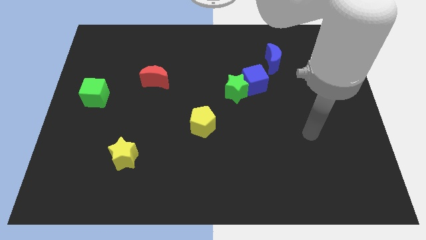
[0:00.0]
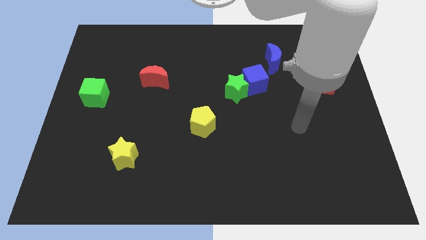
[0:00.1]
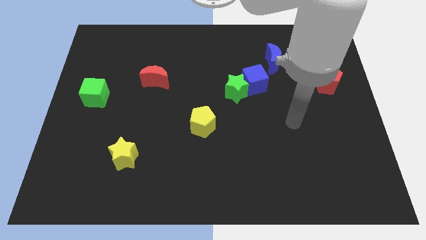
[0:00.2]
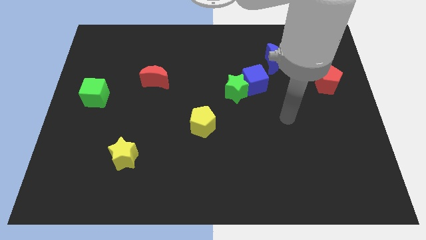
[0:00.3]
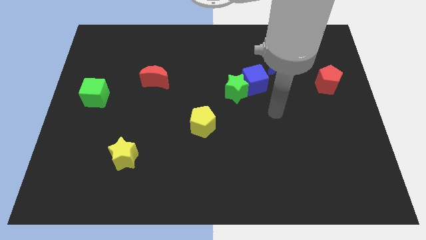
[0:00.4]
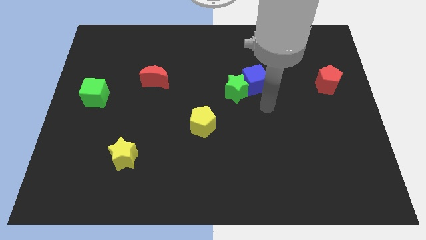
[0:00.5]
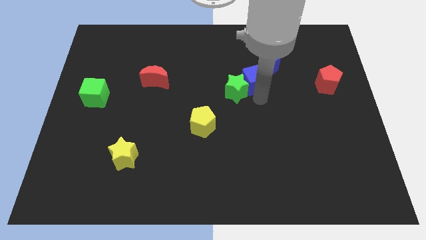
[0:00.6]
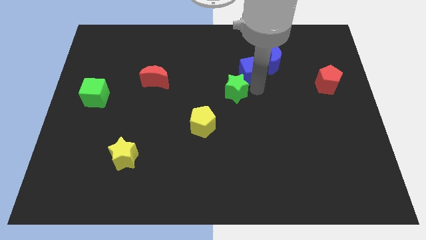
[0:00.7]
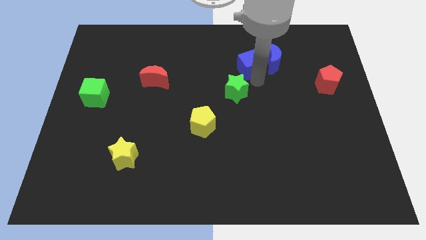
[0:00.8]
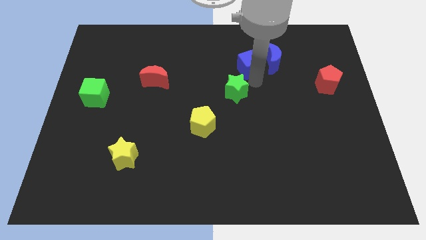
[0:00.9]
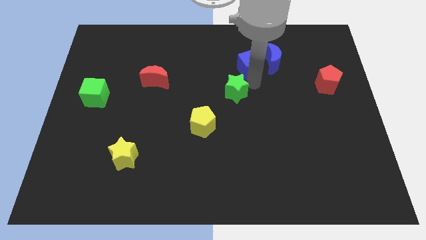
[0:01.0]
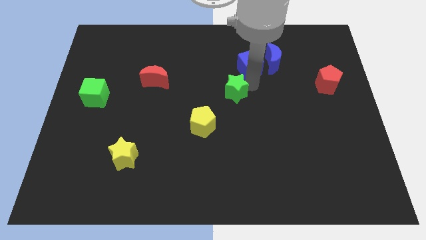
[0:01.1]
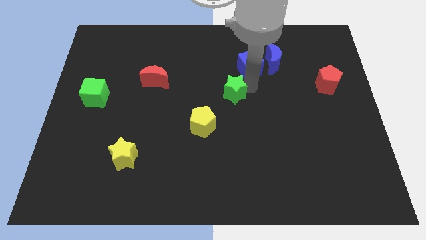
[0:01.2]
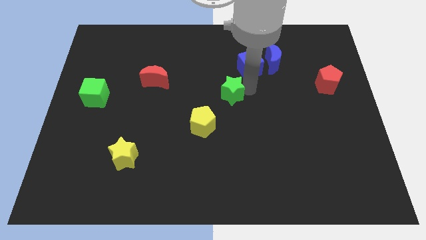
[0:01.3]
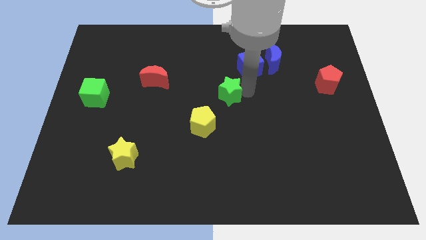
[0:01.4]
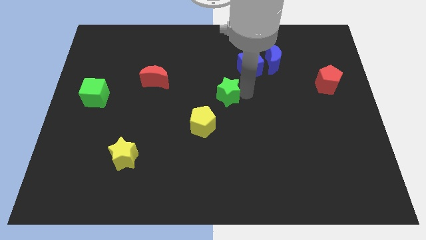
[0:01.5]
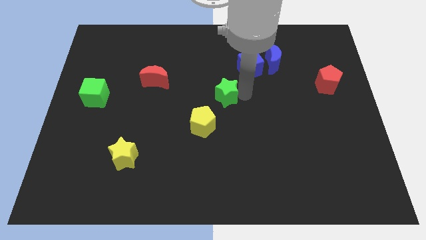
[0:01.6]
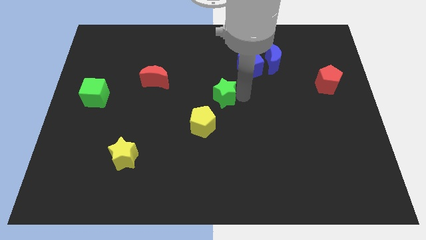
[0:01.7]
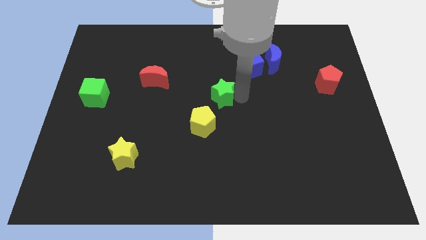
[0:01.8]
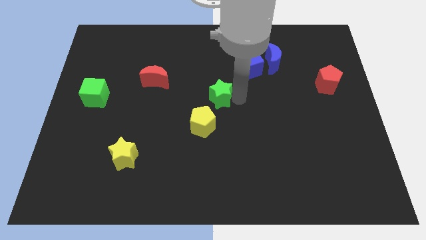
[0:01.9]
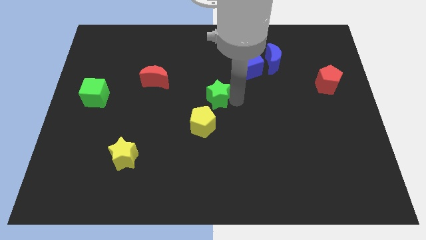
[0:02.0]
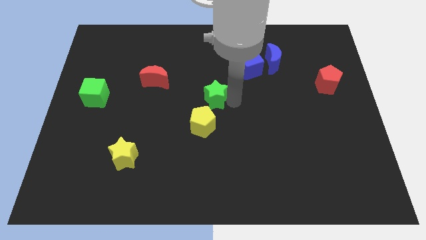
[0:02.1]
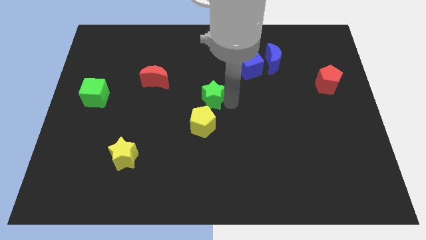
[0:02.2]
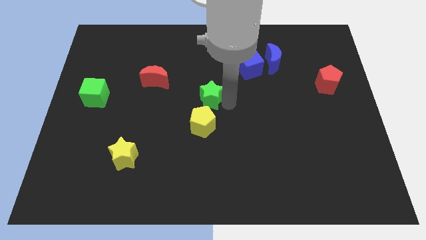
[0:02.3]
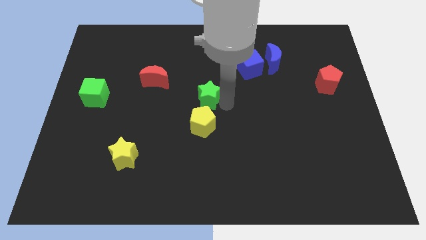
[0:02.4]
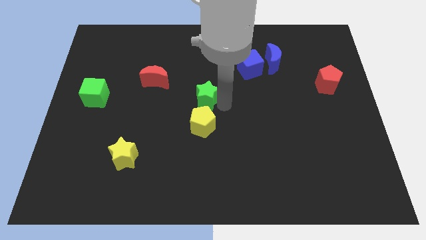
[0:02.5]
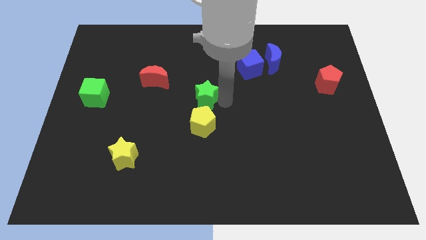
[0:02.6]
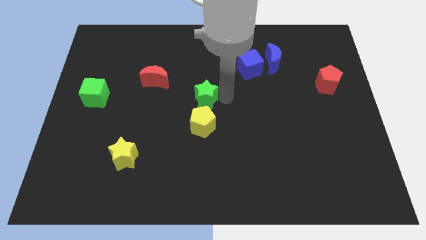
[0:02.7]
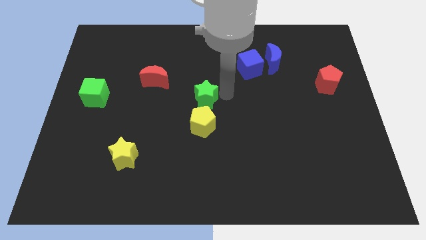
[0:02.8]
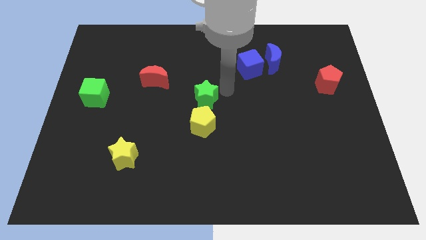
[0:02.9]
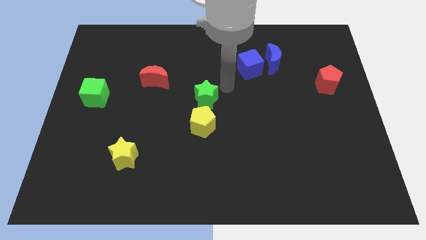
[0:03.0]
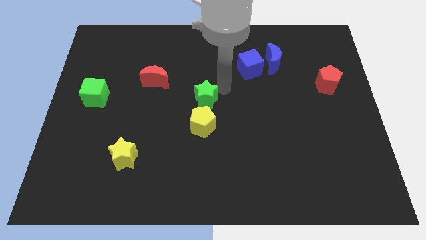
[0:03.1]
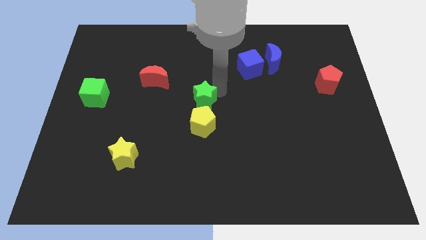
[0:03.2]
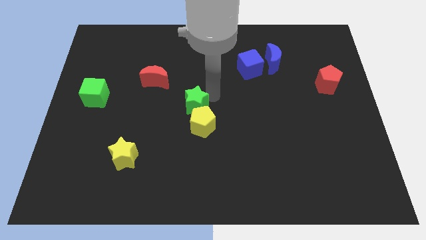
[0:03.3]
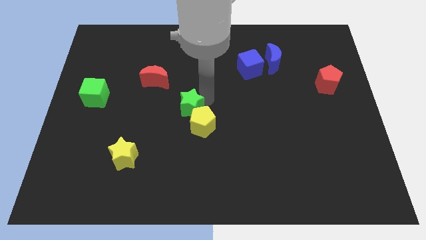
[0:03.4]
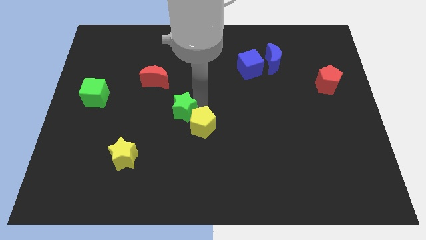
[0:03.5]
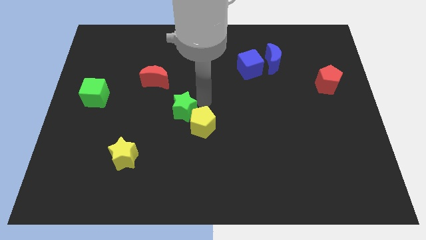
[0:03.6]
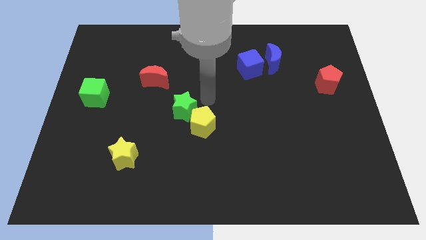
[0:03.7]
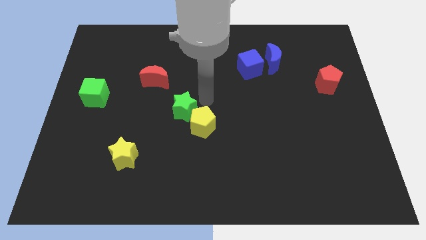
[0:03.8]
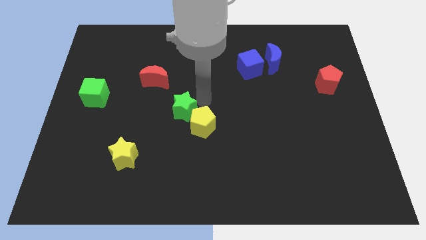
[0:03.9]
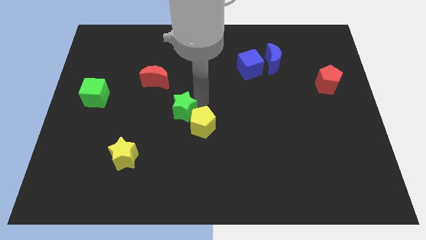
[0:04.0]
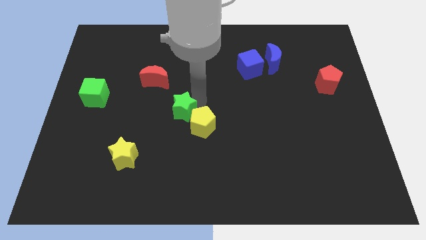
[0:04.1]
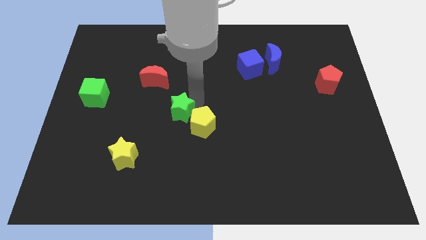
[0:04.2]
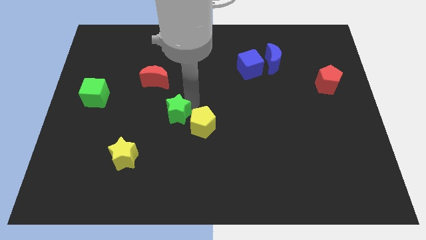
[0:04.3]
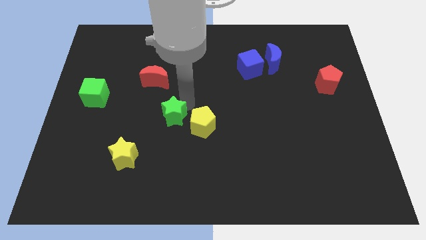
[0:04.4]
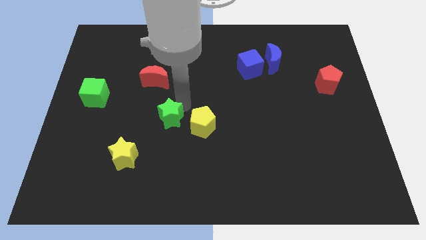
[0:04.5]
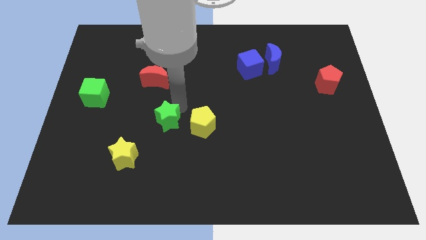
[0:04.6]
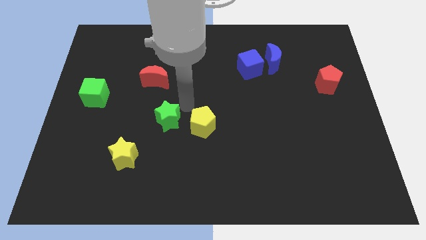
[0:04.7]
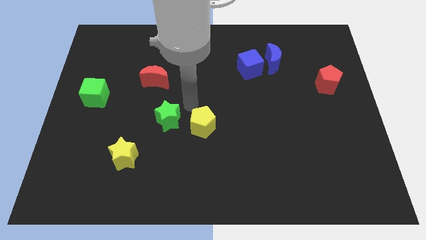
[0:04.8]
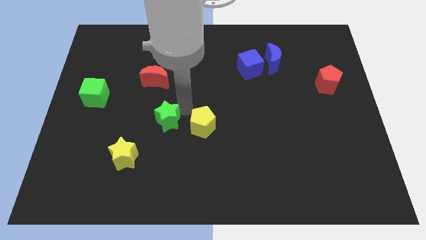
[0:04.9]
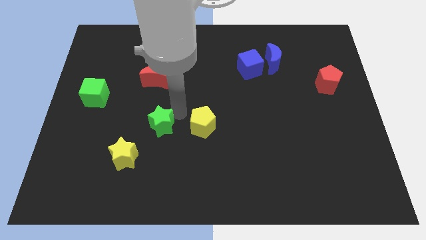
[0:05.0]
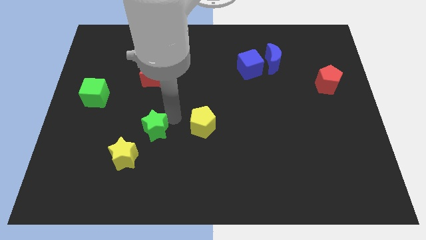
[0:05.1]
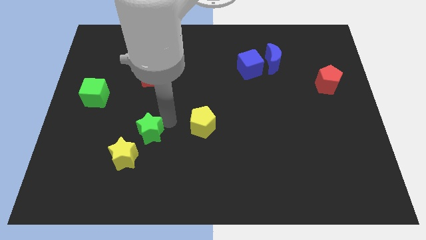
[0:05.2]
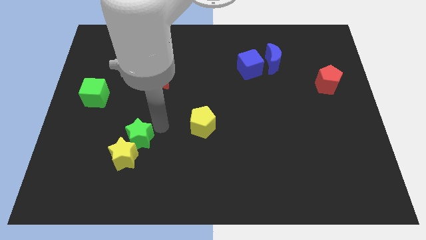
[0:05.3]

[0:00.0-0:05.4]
move the green star close to the yellow star

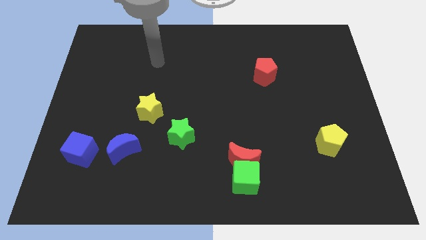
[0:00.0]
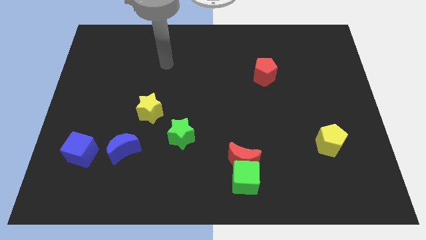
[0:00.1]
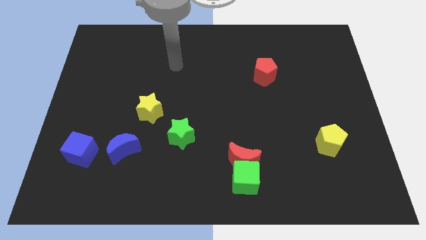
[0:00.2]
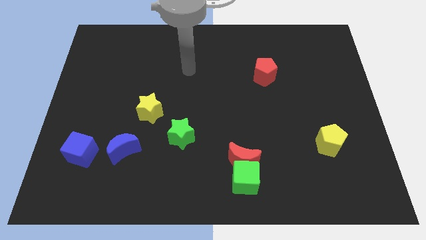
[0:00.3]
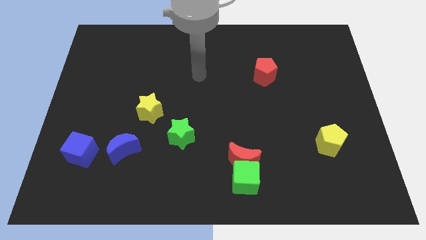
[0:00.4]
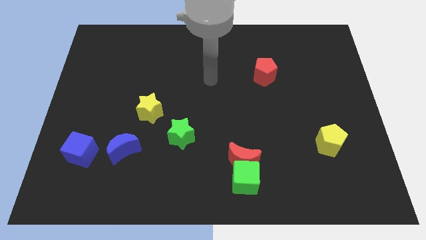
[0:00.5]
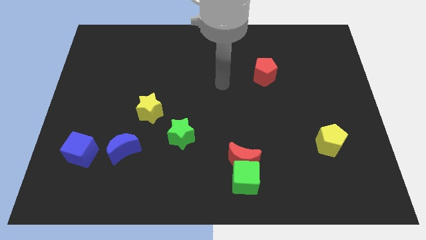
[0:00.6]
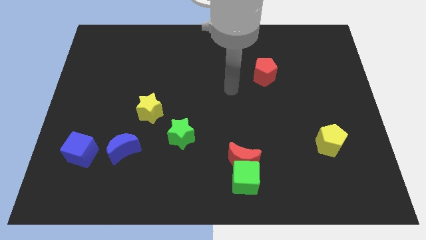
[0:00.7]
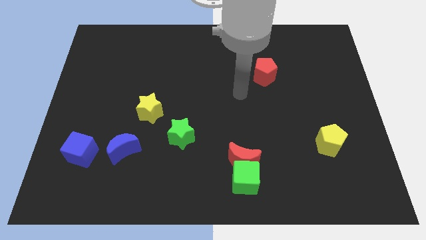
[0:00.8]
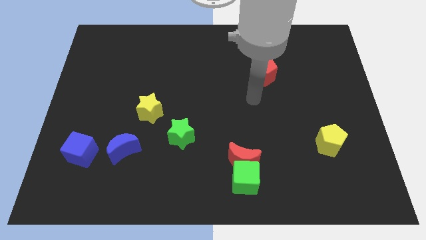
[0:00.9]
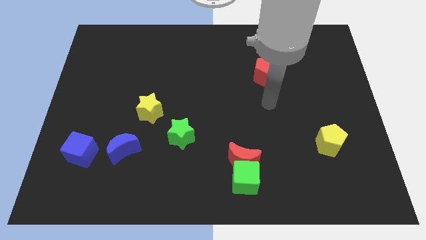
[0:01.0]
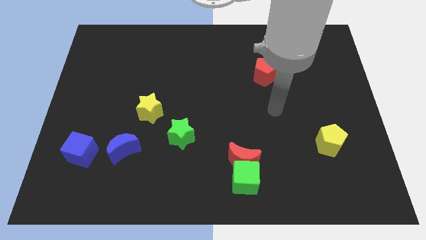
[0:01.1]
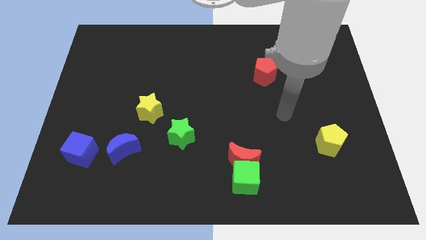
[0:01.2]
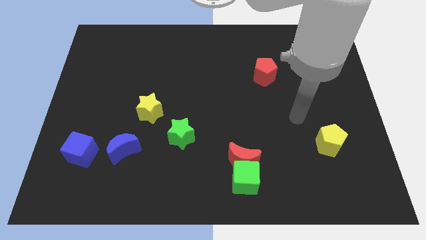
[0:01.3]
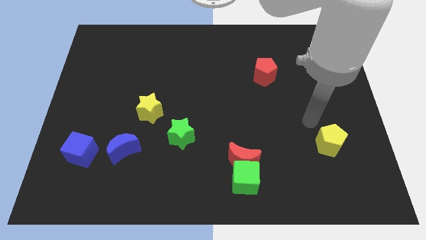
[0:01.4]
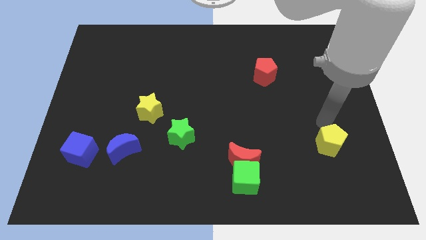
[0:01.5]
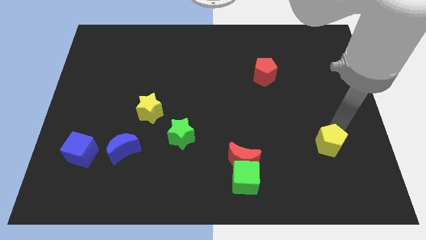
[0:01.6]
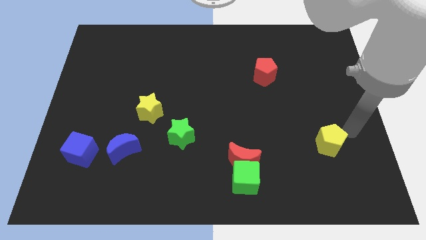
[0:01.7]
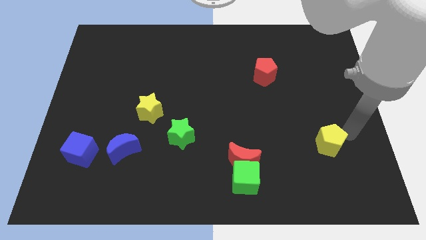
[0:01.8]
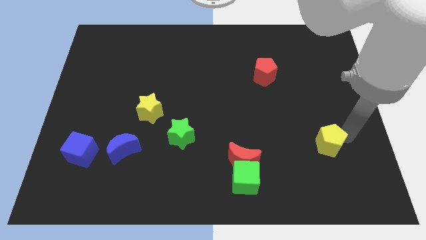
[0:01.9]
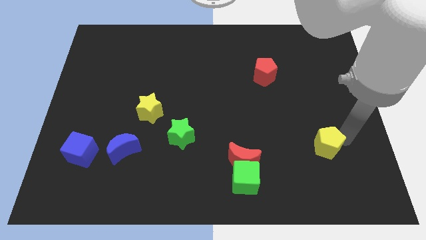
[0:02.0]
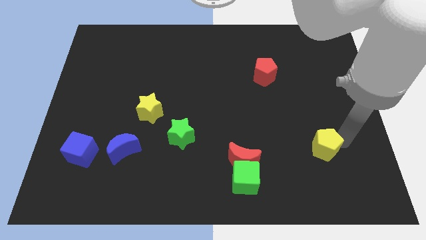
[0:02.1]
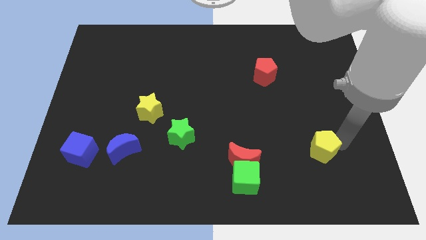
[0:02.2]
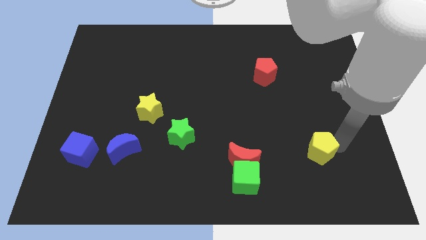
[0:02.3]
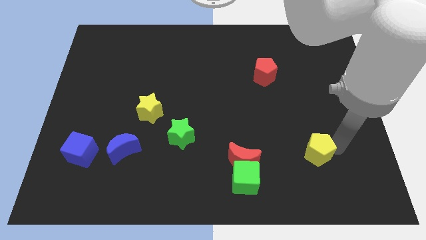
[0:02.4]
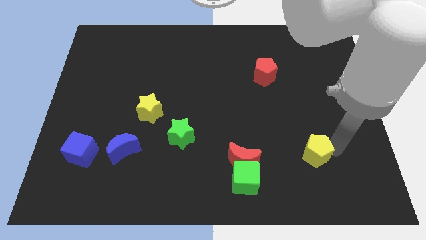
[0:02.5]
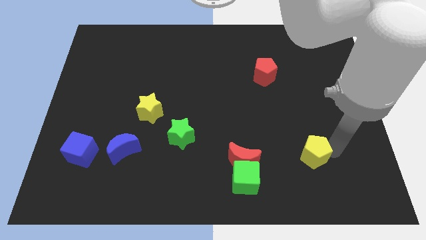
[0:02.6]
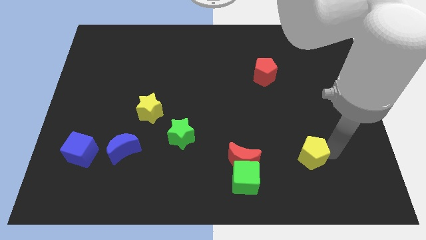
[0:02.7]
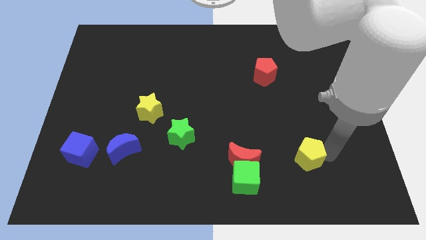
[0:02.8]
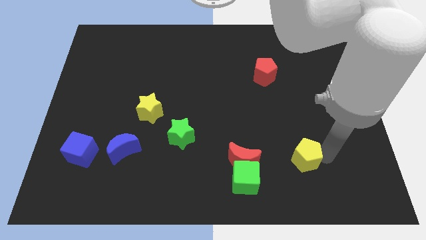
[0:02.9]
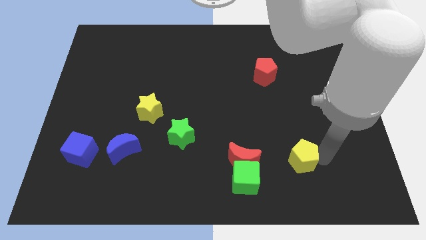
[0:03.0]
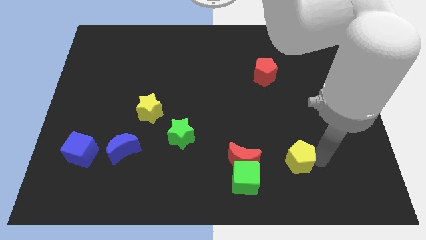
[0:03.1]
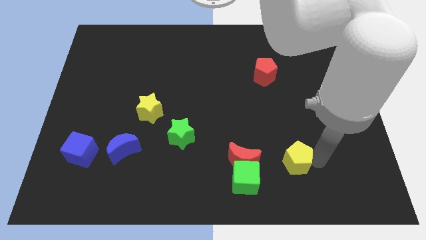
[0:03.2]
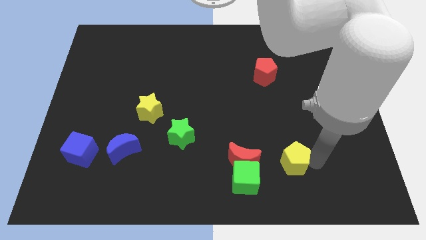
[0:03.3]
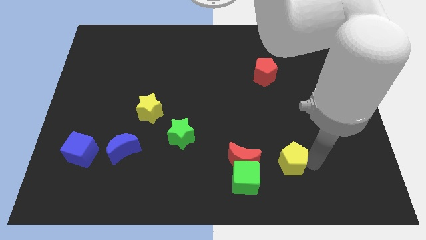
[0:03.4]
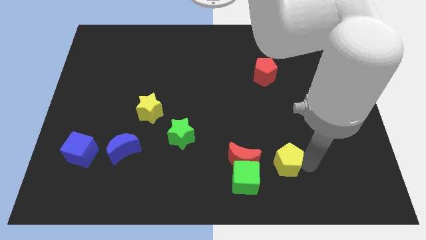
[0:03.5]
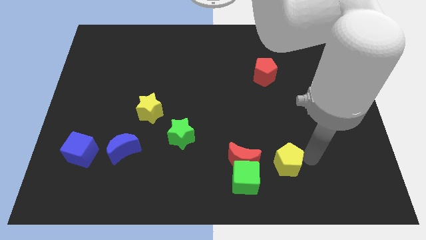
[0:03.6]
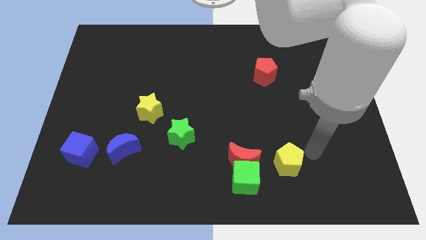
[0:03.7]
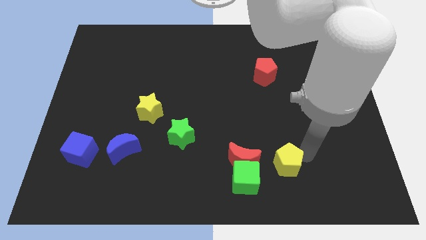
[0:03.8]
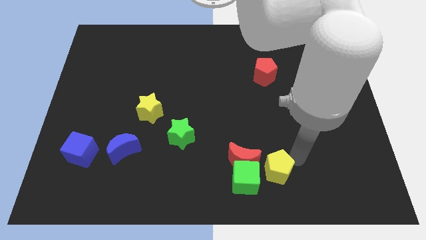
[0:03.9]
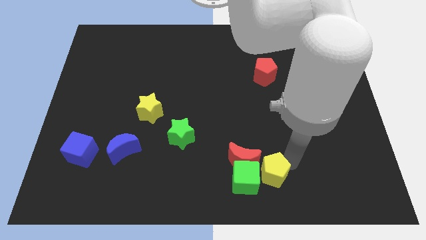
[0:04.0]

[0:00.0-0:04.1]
put the yellow pentagon next to the green cube
